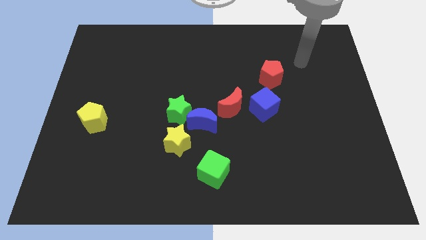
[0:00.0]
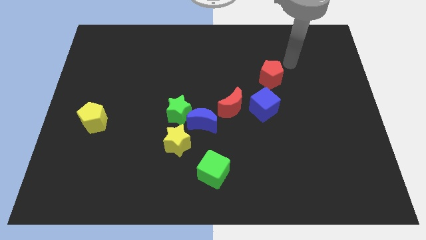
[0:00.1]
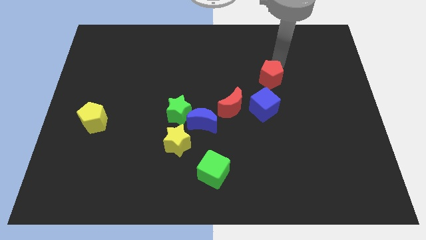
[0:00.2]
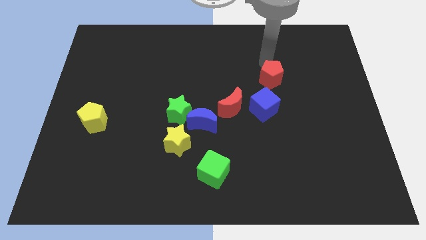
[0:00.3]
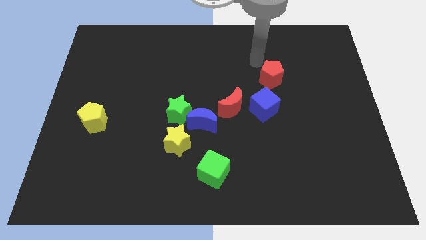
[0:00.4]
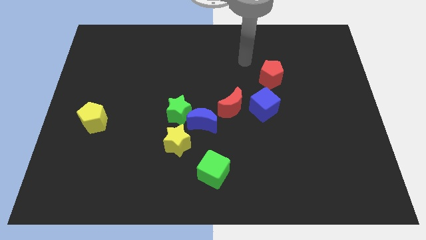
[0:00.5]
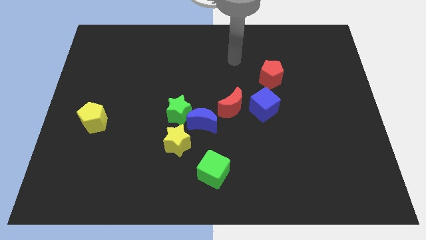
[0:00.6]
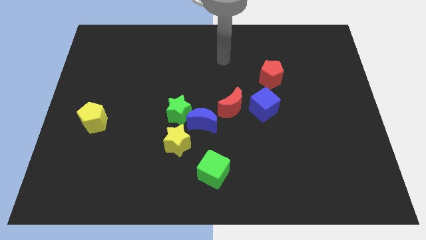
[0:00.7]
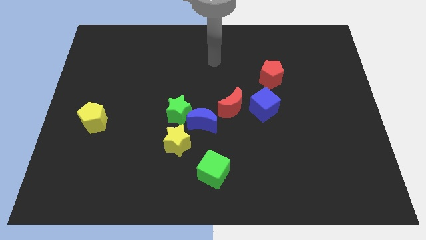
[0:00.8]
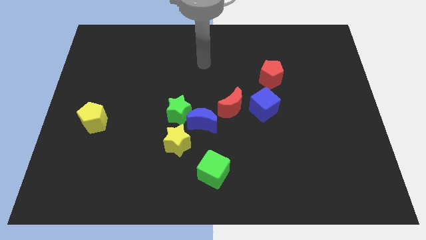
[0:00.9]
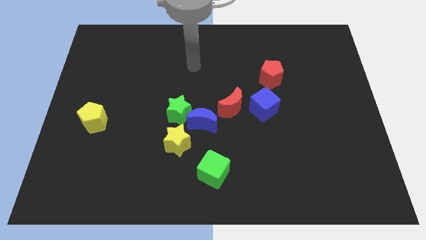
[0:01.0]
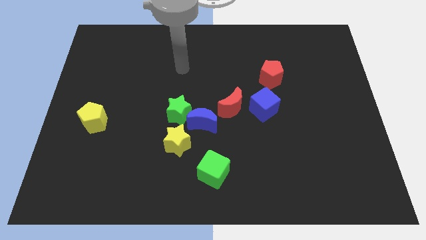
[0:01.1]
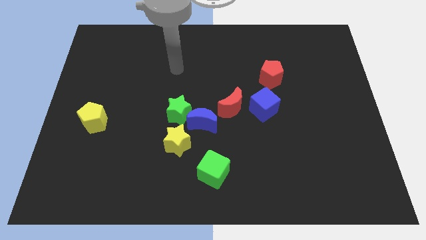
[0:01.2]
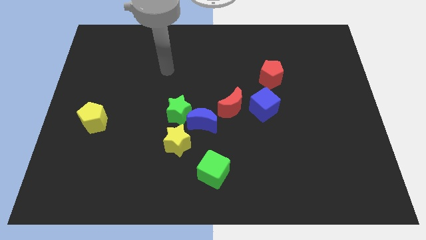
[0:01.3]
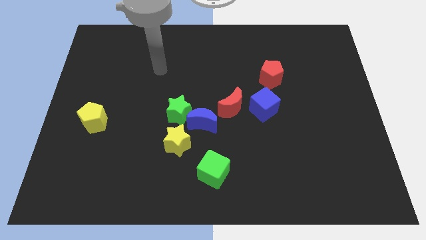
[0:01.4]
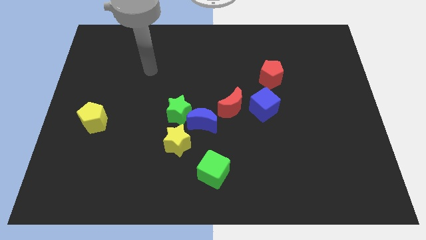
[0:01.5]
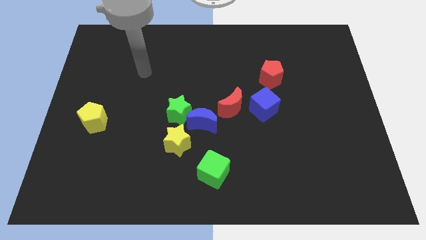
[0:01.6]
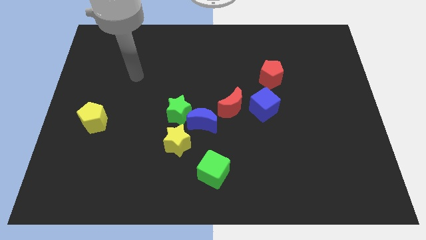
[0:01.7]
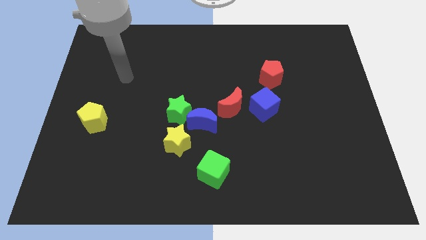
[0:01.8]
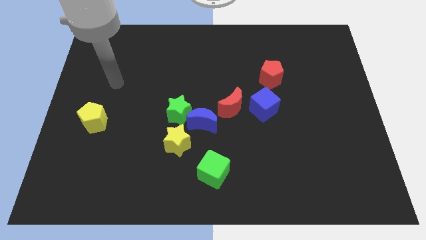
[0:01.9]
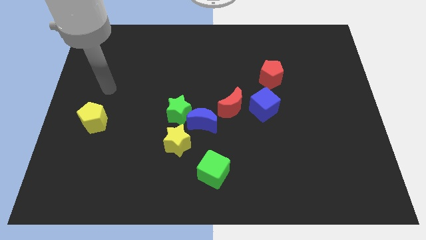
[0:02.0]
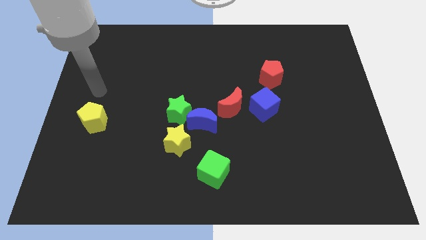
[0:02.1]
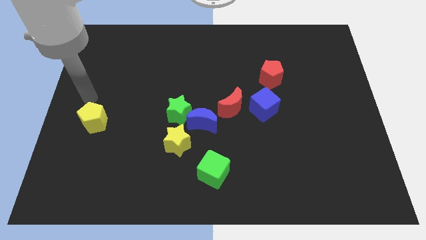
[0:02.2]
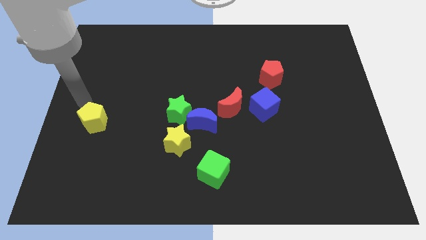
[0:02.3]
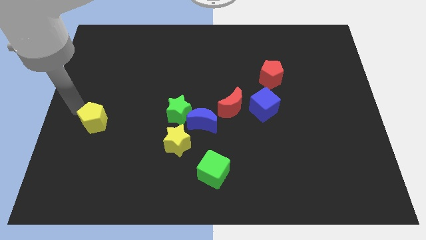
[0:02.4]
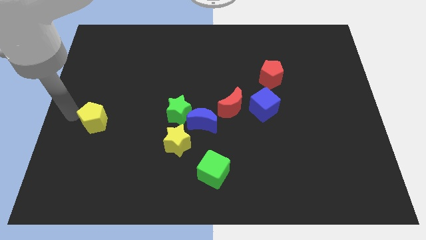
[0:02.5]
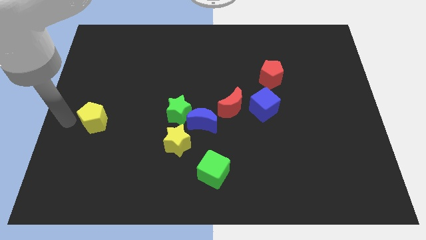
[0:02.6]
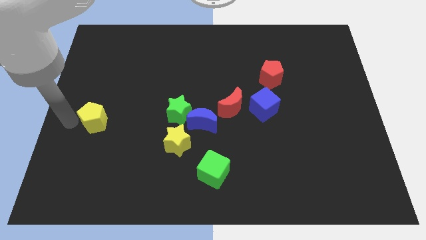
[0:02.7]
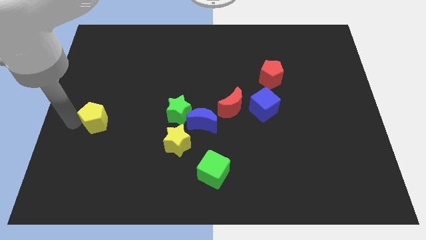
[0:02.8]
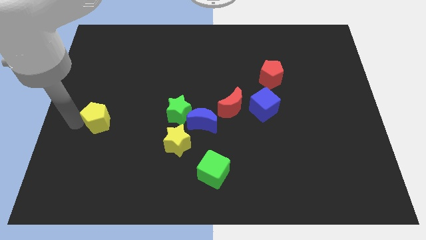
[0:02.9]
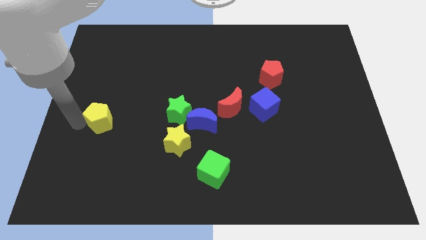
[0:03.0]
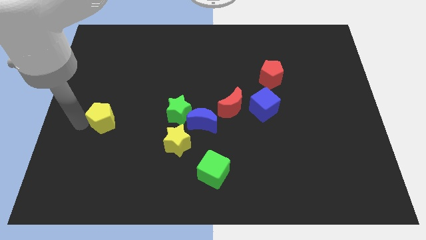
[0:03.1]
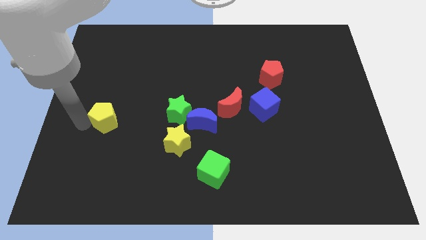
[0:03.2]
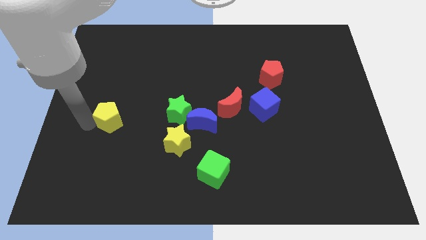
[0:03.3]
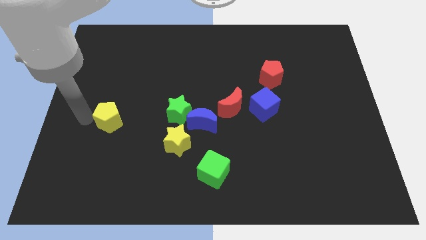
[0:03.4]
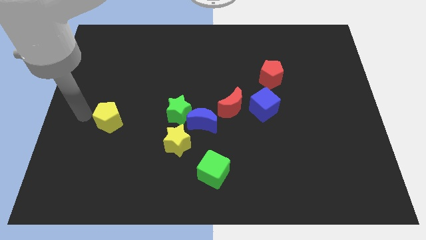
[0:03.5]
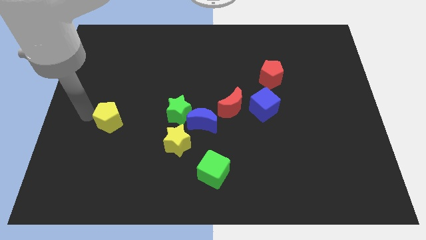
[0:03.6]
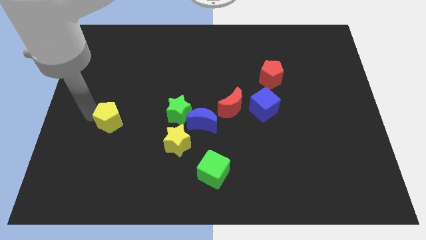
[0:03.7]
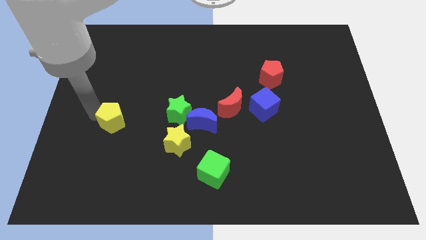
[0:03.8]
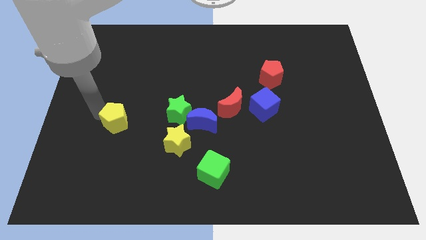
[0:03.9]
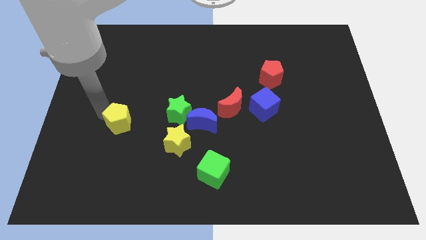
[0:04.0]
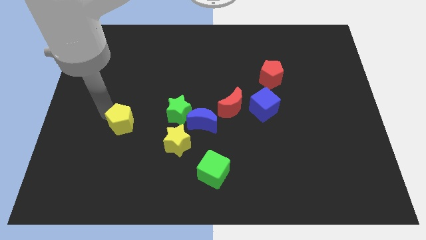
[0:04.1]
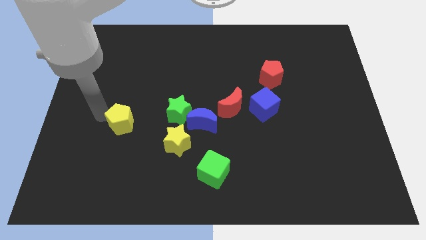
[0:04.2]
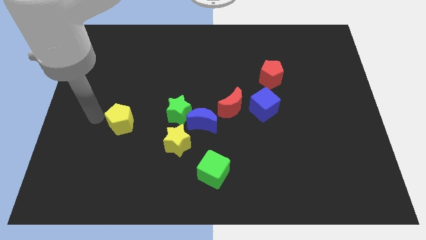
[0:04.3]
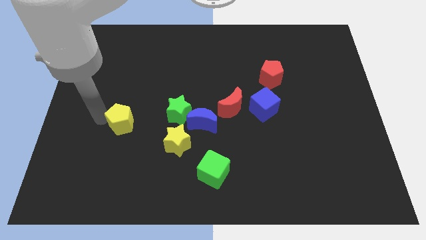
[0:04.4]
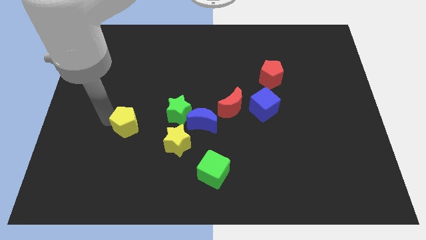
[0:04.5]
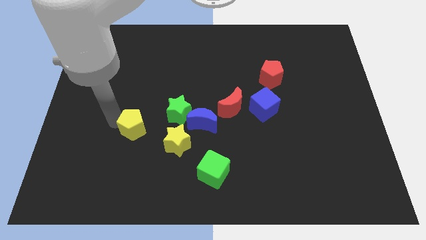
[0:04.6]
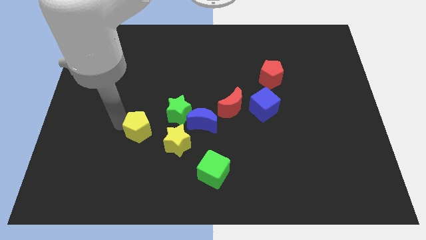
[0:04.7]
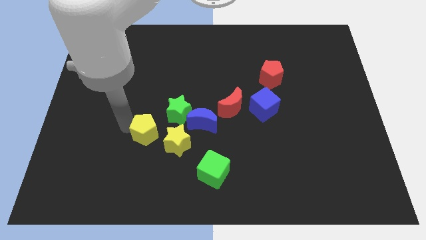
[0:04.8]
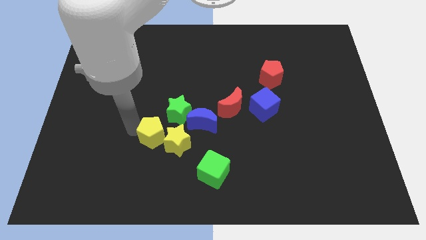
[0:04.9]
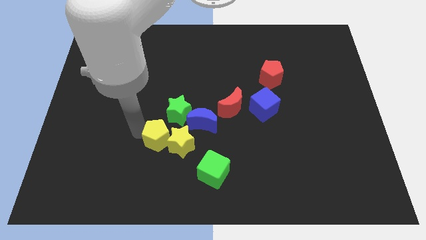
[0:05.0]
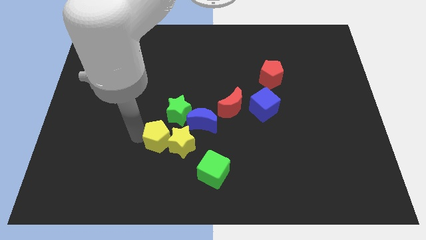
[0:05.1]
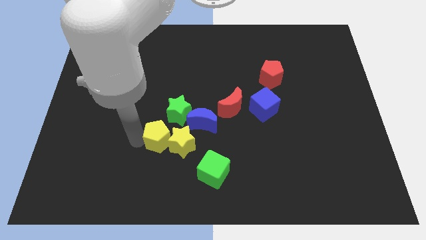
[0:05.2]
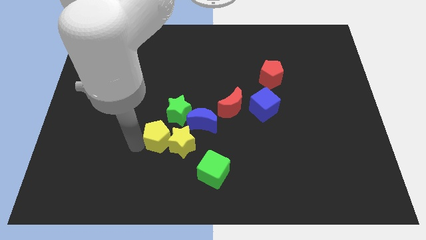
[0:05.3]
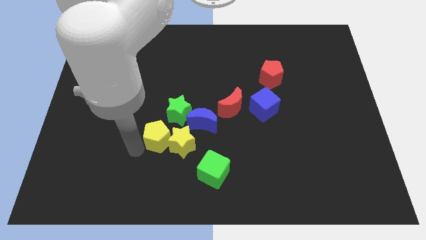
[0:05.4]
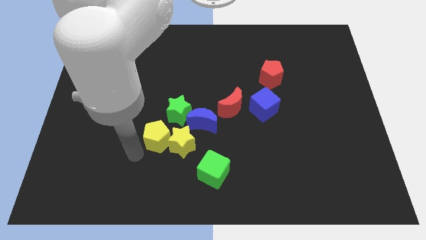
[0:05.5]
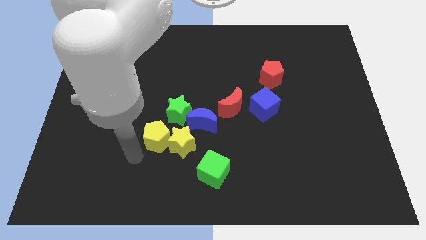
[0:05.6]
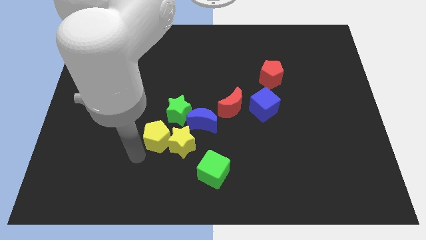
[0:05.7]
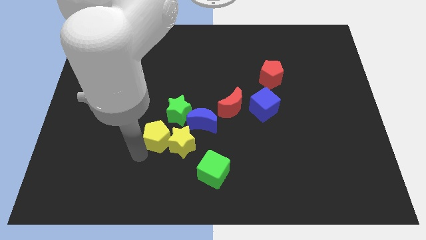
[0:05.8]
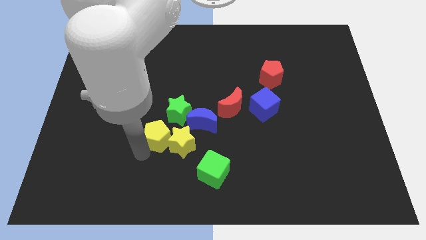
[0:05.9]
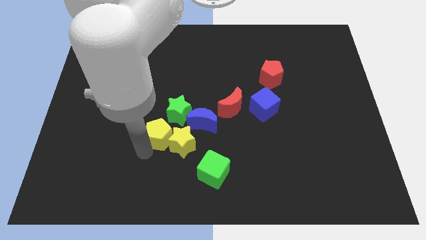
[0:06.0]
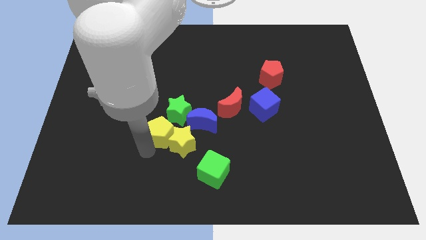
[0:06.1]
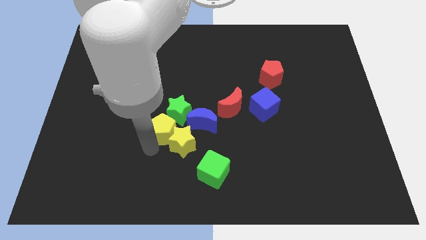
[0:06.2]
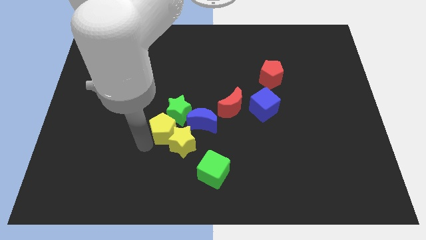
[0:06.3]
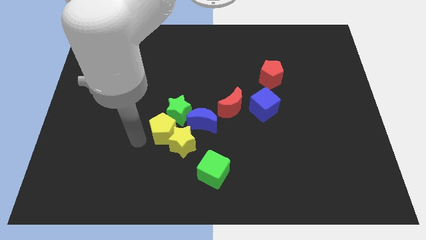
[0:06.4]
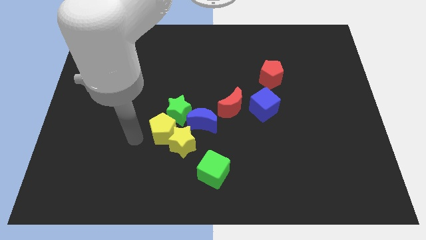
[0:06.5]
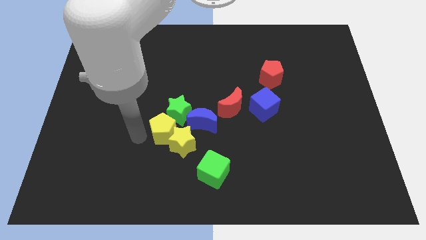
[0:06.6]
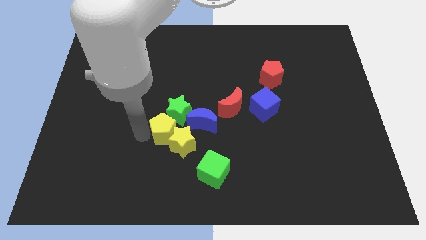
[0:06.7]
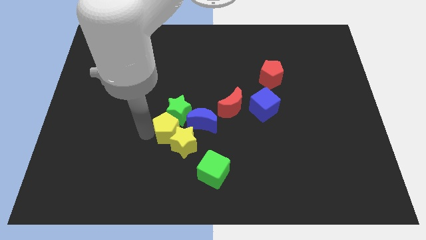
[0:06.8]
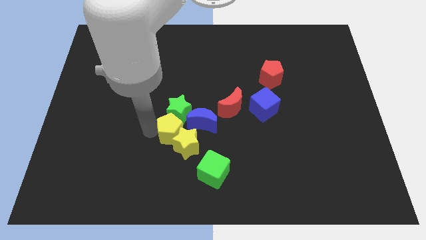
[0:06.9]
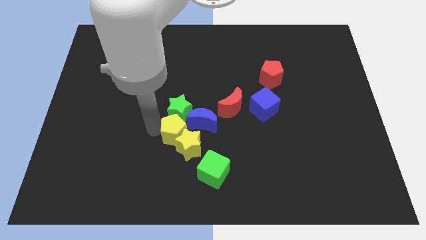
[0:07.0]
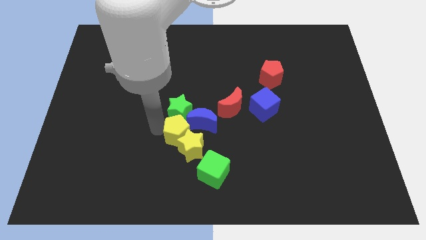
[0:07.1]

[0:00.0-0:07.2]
slide the yellow pentagon next to the blue moon
